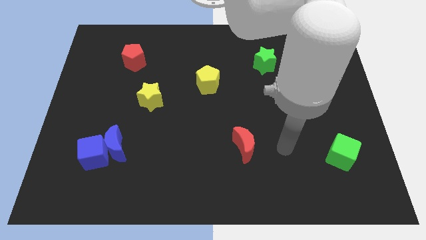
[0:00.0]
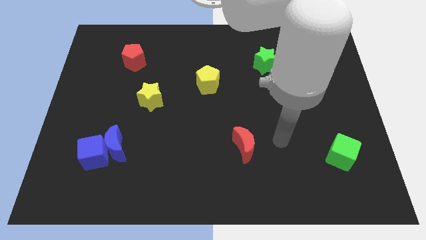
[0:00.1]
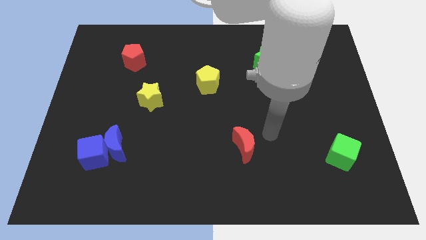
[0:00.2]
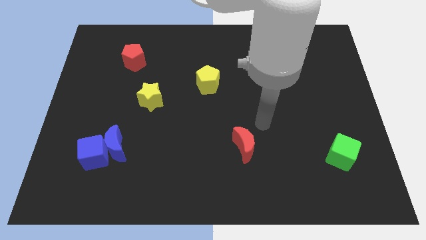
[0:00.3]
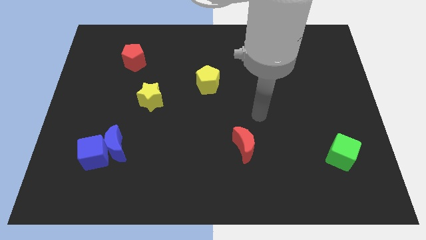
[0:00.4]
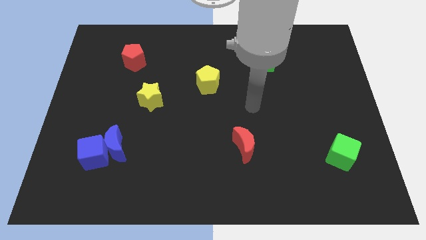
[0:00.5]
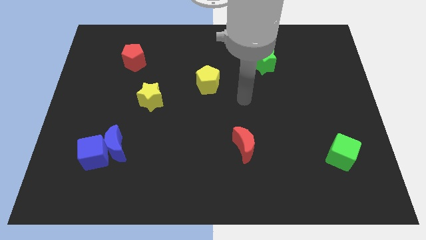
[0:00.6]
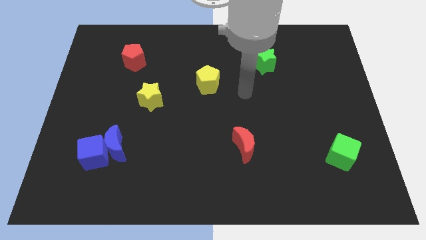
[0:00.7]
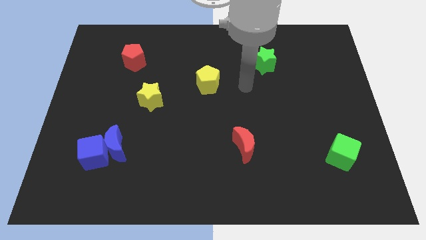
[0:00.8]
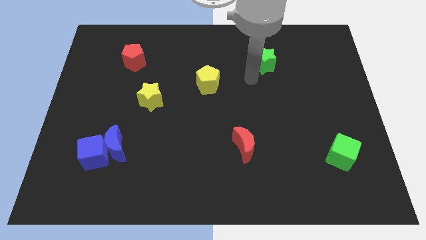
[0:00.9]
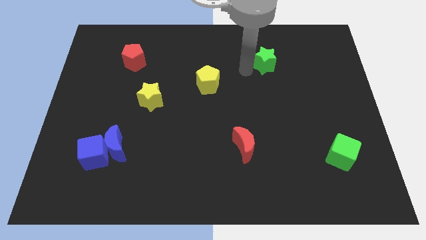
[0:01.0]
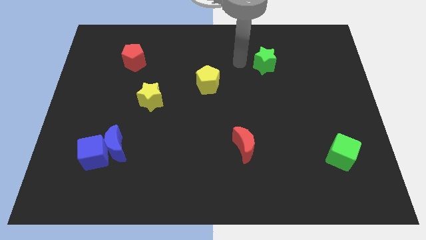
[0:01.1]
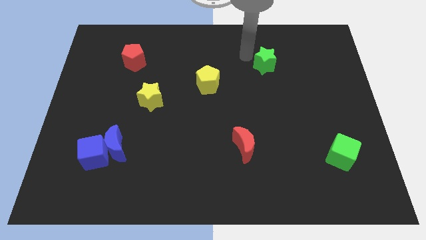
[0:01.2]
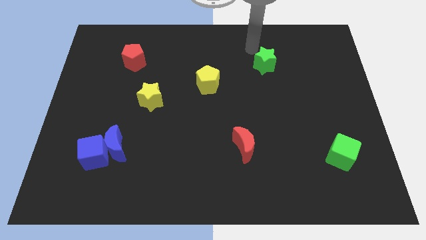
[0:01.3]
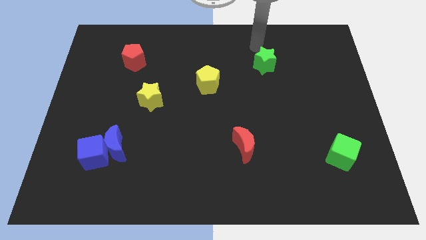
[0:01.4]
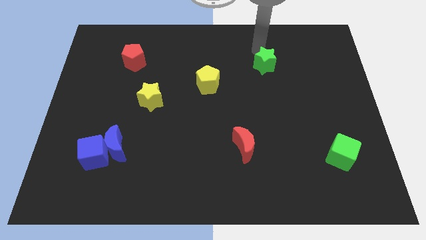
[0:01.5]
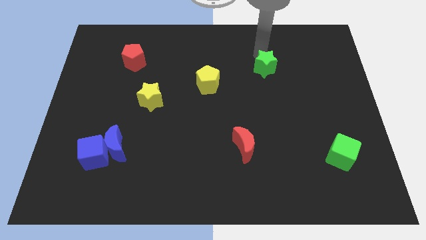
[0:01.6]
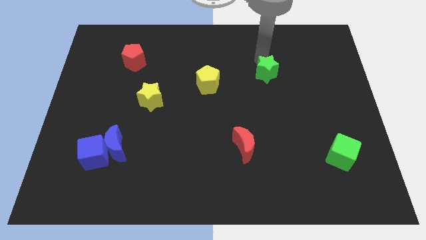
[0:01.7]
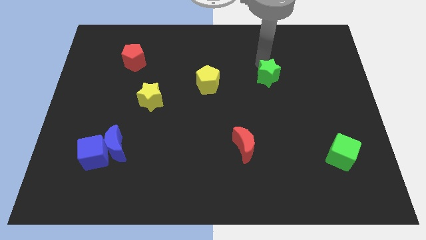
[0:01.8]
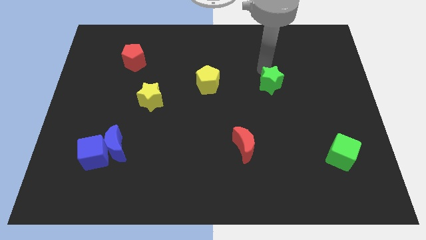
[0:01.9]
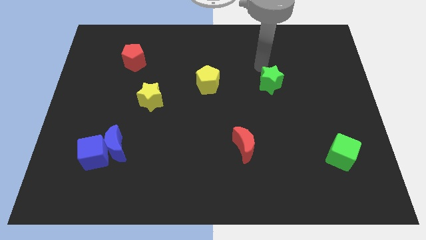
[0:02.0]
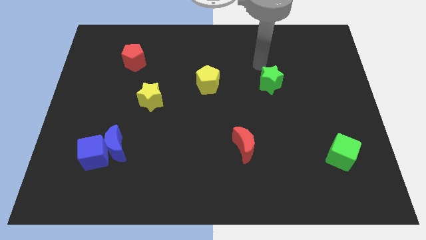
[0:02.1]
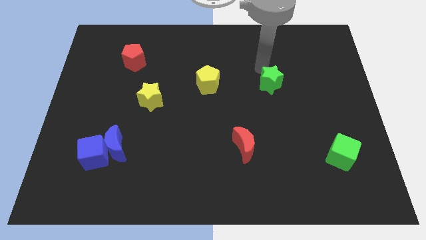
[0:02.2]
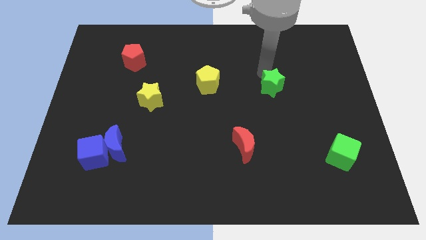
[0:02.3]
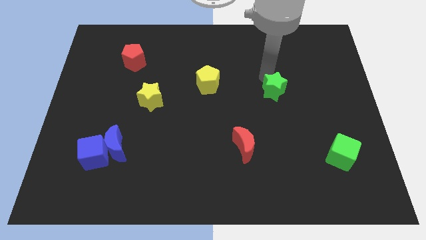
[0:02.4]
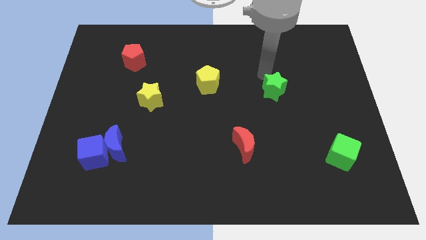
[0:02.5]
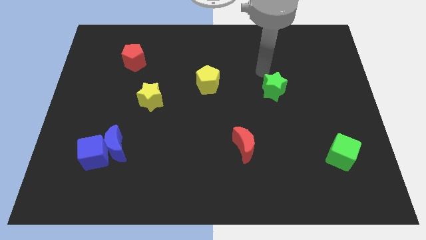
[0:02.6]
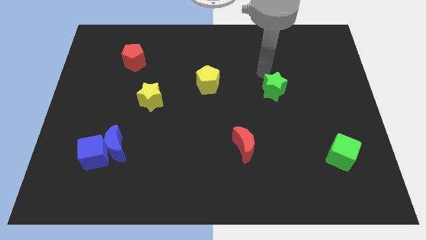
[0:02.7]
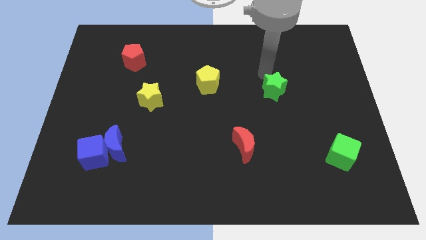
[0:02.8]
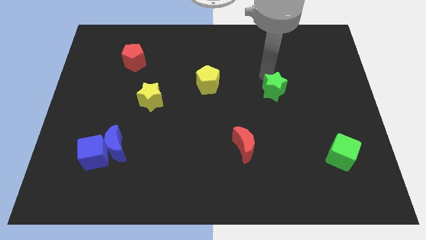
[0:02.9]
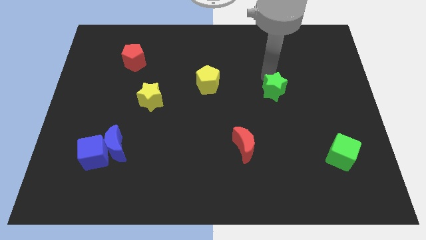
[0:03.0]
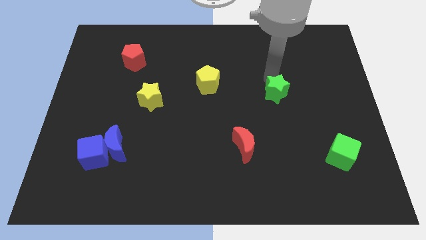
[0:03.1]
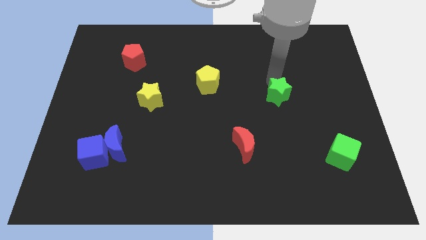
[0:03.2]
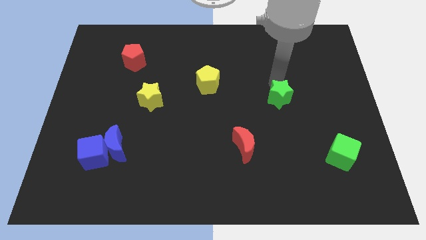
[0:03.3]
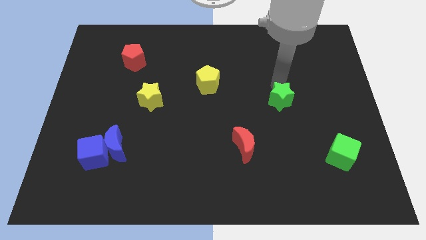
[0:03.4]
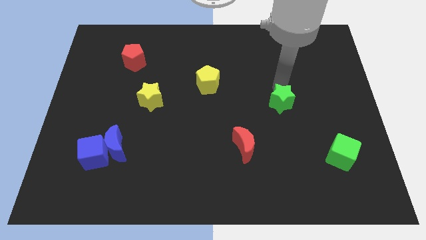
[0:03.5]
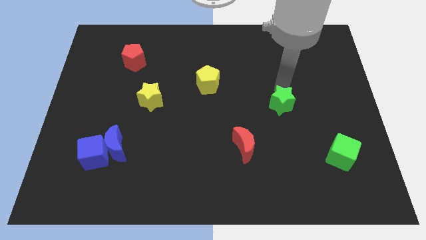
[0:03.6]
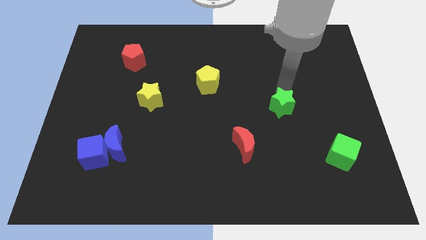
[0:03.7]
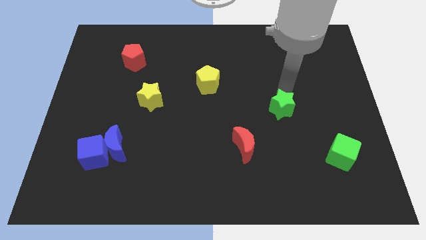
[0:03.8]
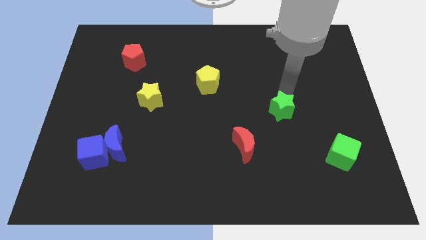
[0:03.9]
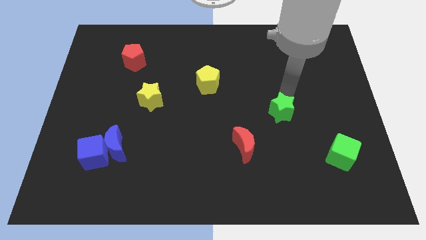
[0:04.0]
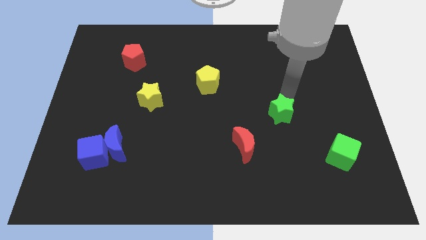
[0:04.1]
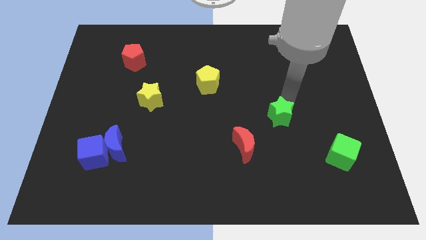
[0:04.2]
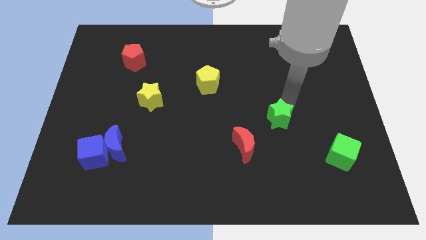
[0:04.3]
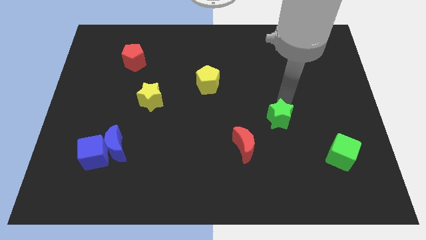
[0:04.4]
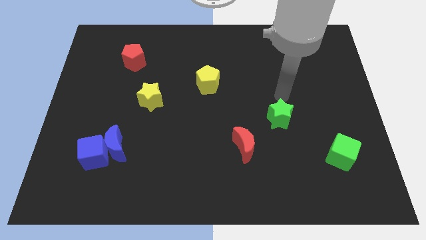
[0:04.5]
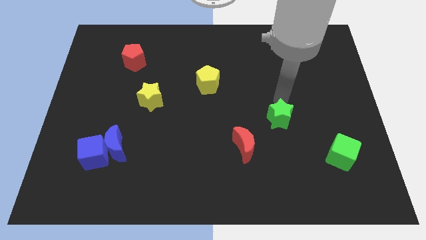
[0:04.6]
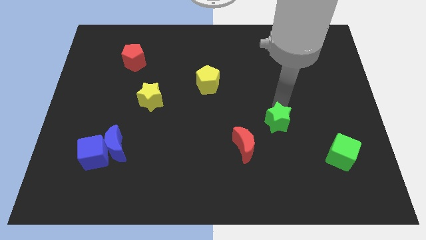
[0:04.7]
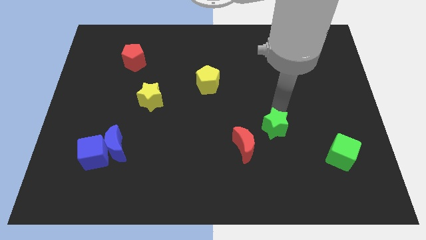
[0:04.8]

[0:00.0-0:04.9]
push the green star down

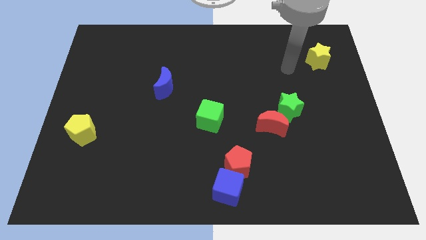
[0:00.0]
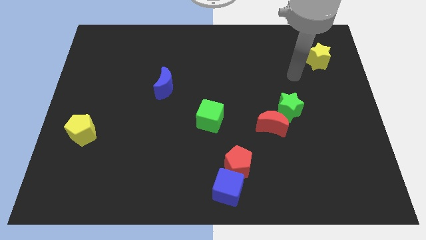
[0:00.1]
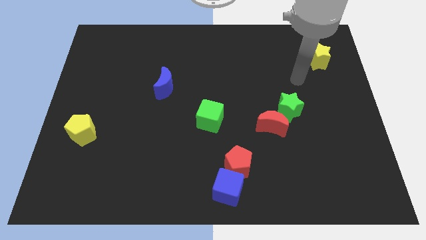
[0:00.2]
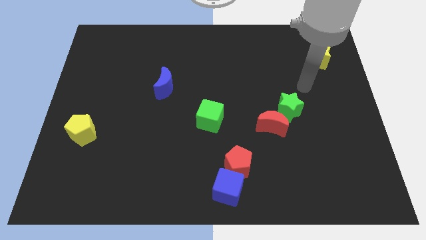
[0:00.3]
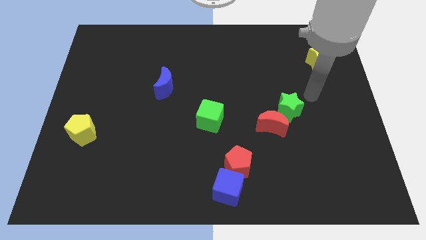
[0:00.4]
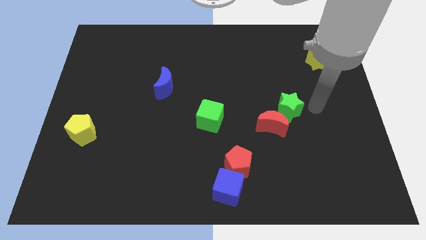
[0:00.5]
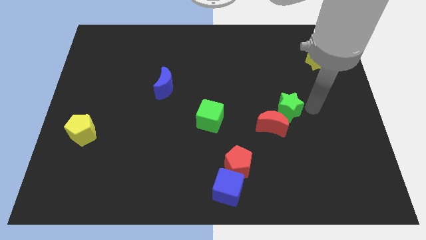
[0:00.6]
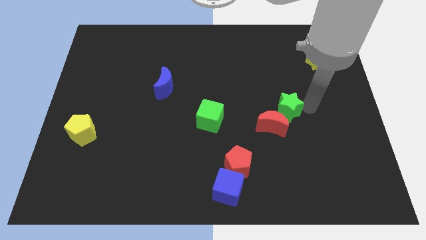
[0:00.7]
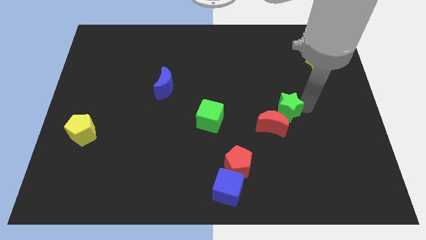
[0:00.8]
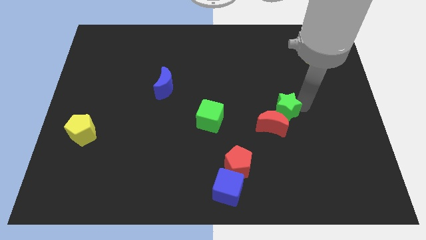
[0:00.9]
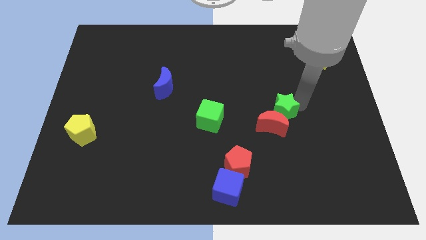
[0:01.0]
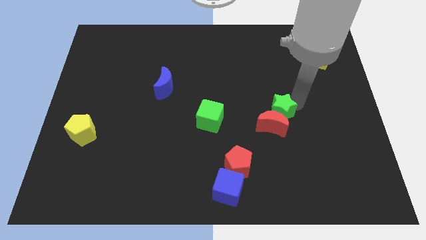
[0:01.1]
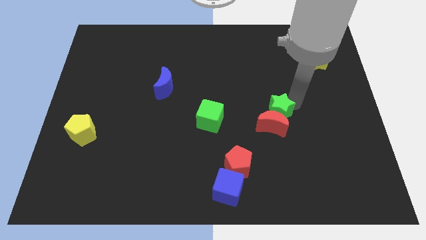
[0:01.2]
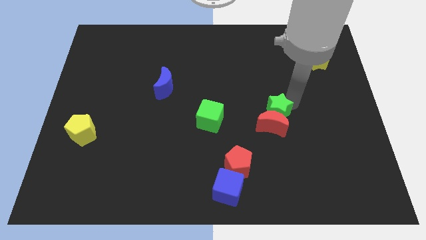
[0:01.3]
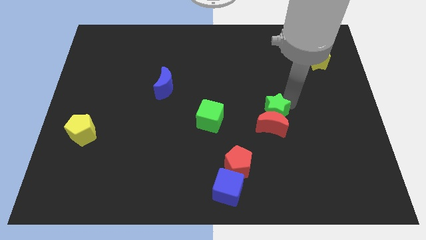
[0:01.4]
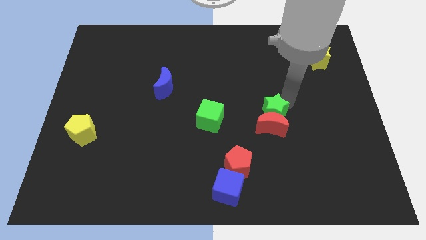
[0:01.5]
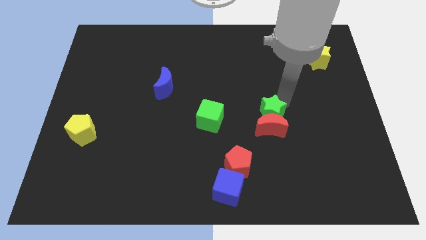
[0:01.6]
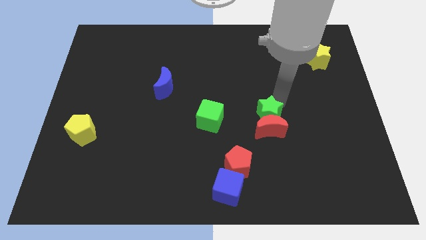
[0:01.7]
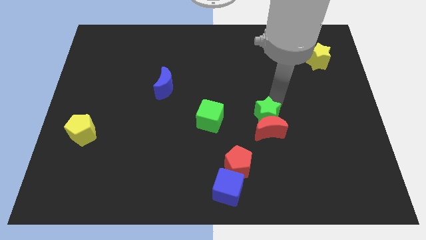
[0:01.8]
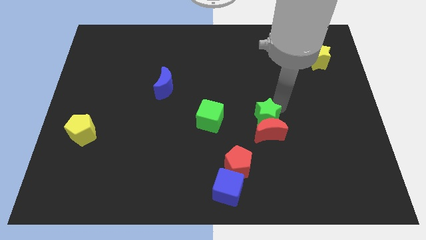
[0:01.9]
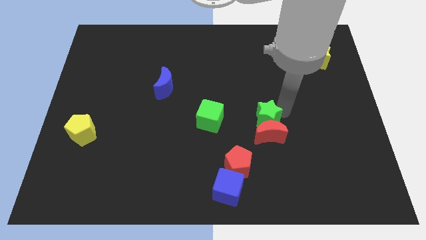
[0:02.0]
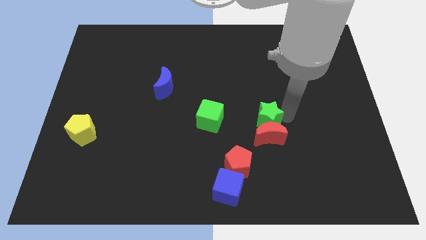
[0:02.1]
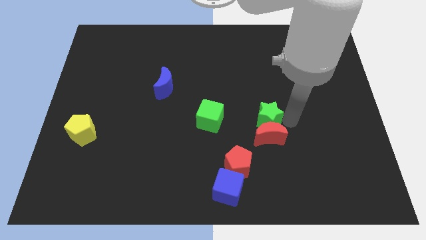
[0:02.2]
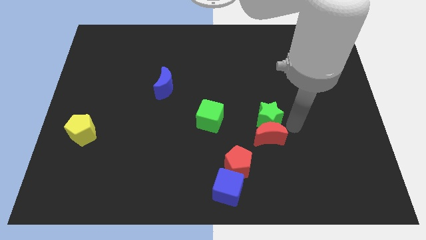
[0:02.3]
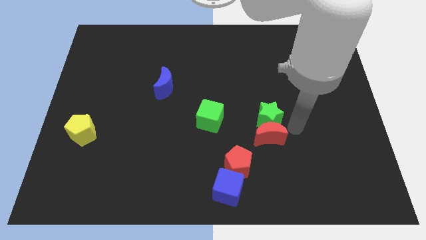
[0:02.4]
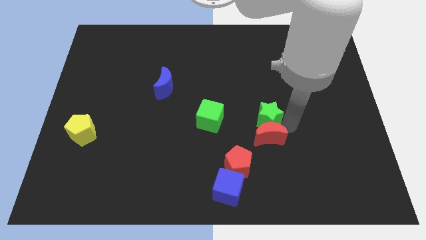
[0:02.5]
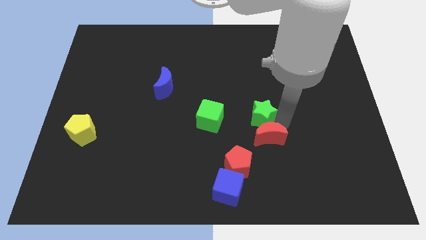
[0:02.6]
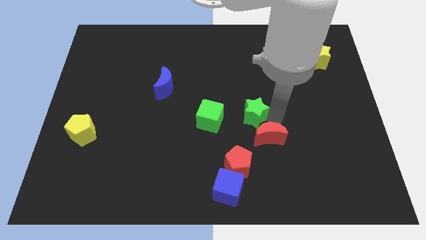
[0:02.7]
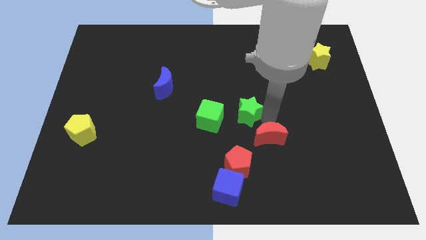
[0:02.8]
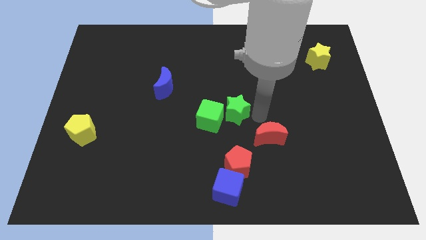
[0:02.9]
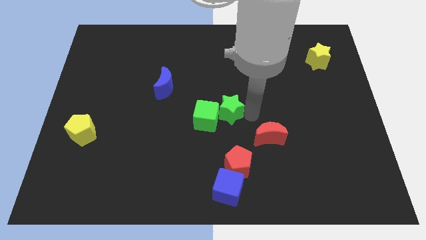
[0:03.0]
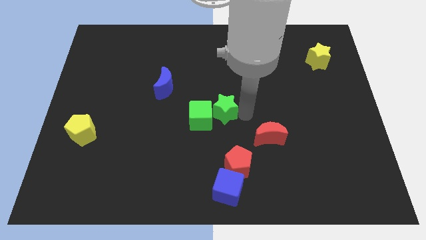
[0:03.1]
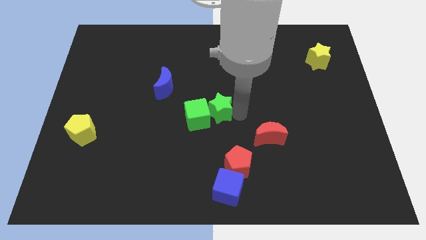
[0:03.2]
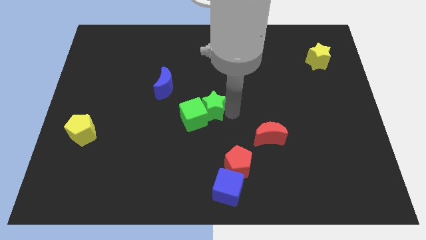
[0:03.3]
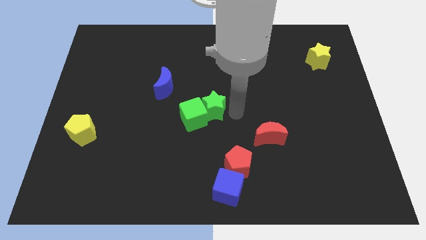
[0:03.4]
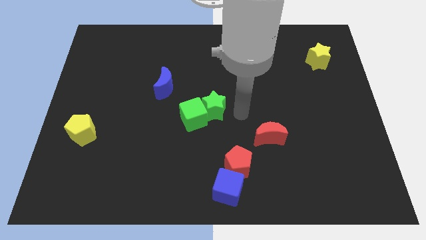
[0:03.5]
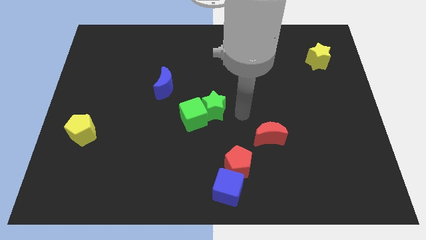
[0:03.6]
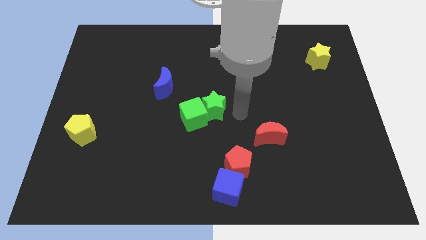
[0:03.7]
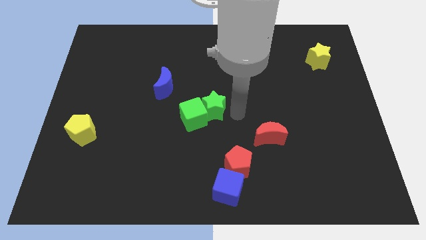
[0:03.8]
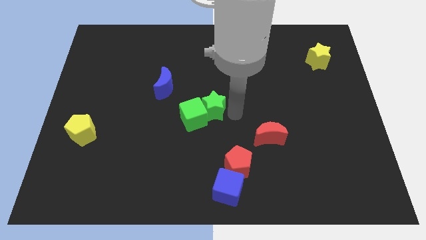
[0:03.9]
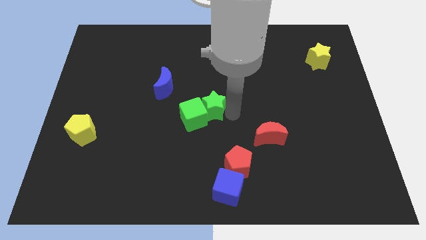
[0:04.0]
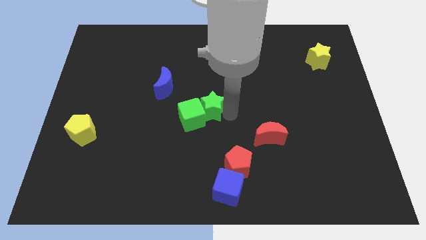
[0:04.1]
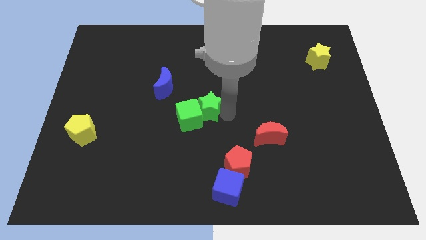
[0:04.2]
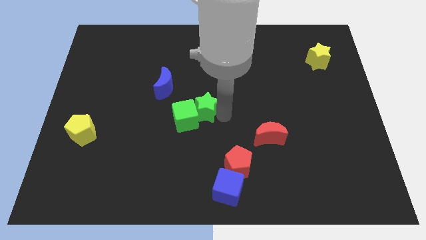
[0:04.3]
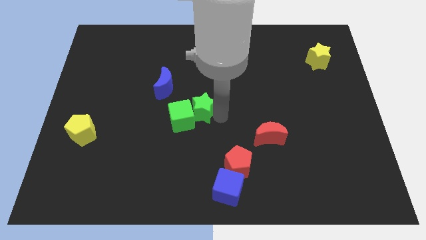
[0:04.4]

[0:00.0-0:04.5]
slide the green star left
